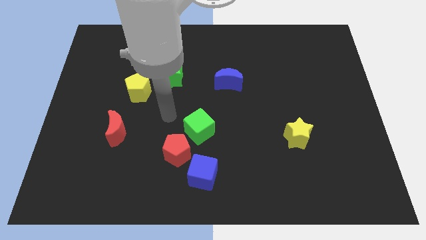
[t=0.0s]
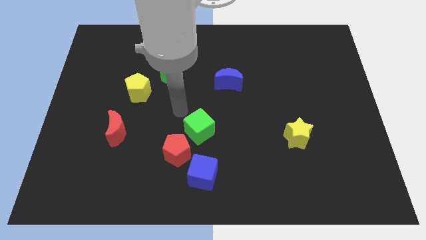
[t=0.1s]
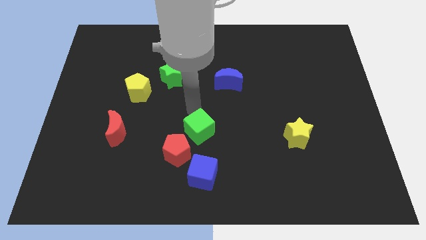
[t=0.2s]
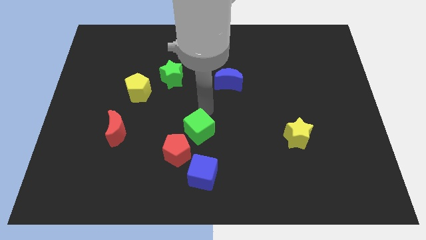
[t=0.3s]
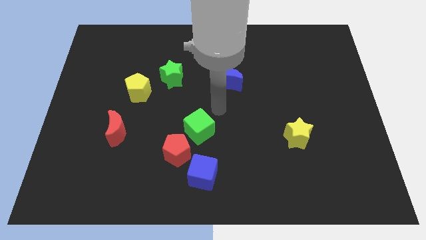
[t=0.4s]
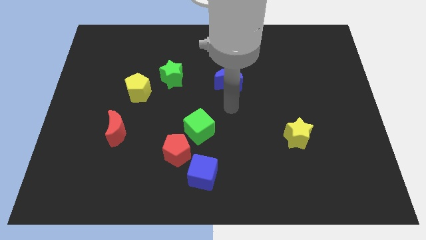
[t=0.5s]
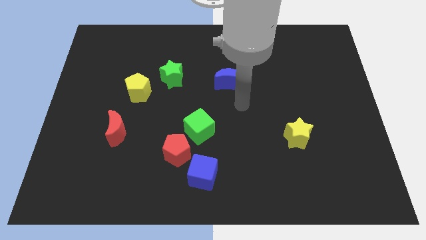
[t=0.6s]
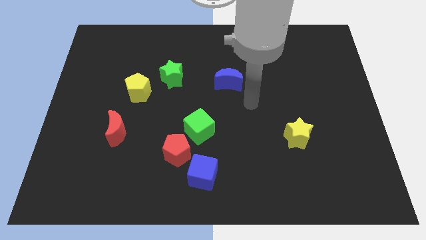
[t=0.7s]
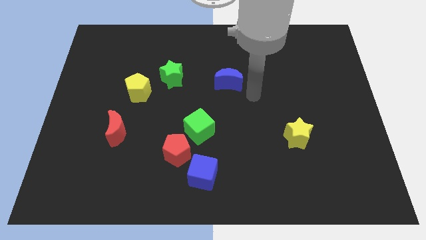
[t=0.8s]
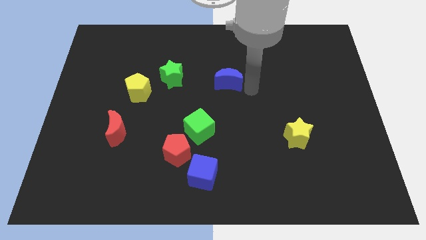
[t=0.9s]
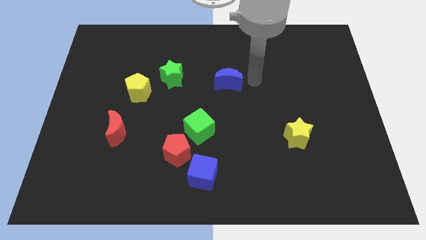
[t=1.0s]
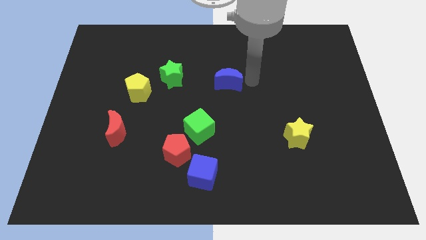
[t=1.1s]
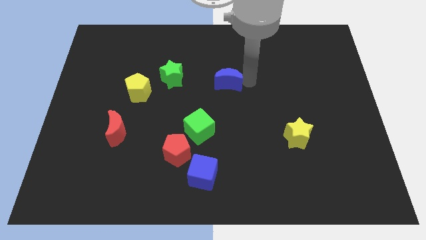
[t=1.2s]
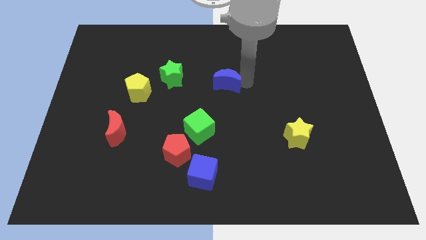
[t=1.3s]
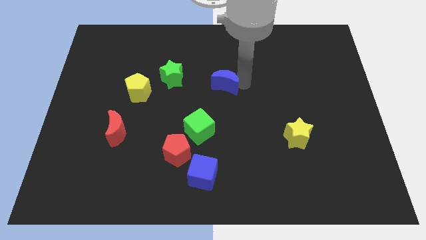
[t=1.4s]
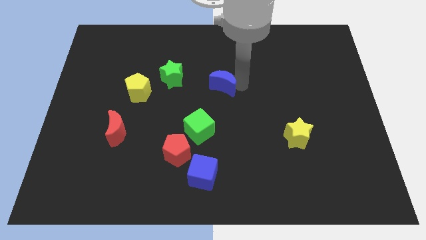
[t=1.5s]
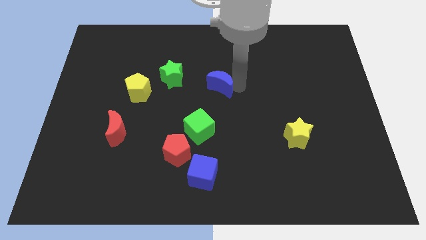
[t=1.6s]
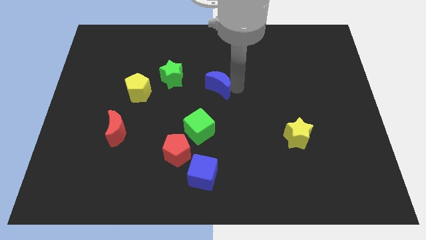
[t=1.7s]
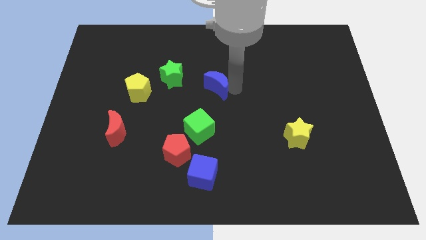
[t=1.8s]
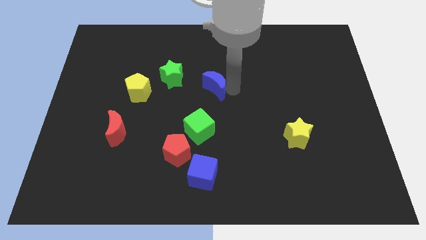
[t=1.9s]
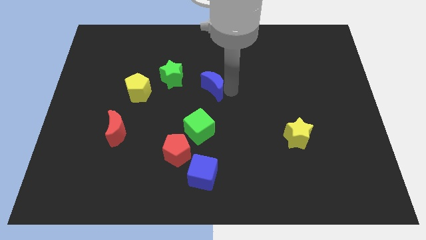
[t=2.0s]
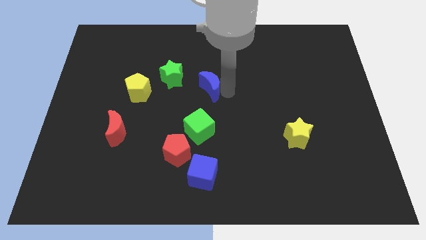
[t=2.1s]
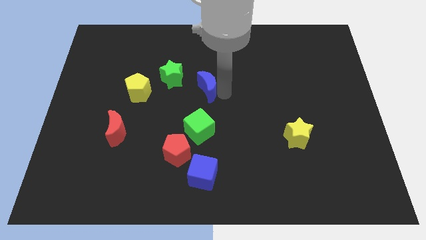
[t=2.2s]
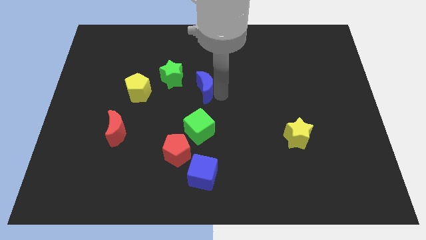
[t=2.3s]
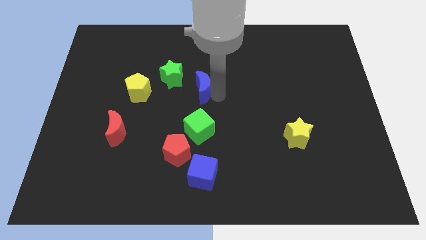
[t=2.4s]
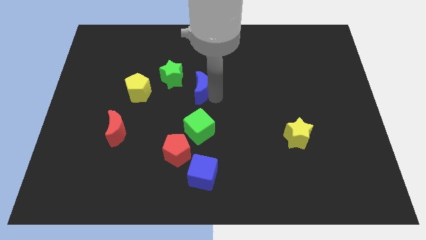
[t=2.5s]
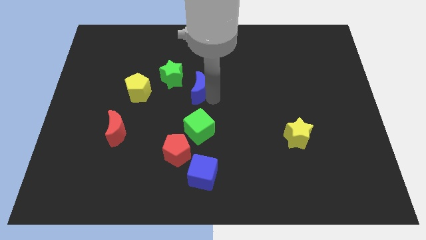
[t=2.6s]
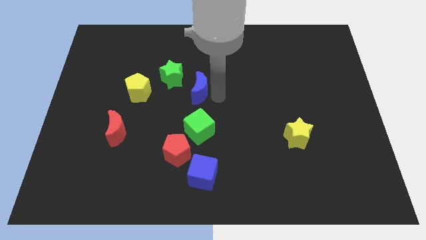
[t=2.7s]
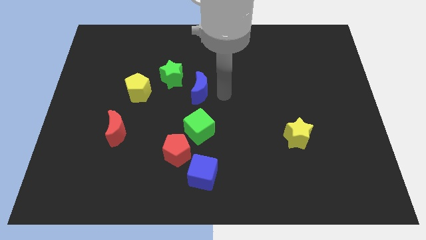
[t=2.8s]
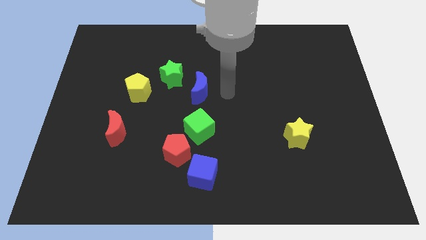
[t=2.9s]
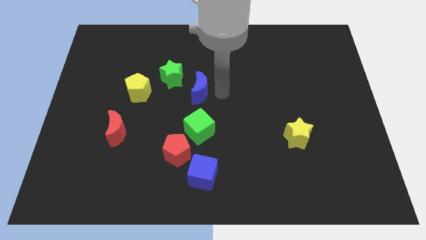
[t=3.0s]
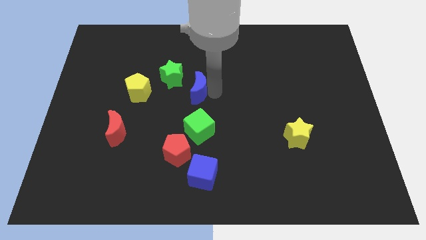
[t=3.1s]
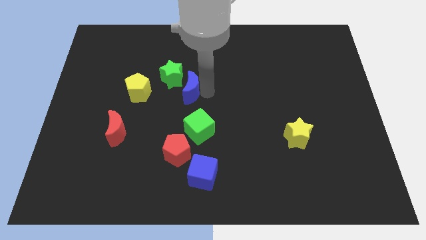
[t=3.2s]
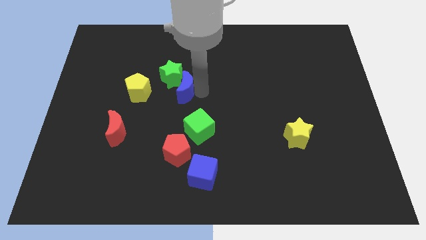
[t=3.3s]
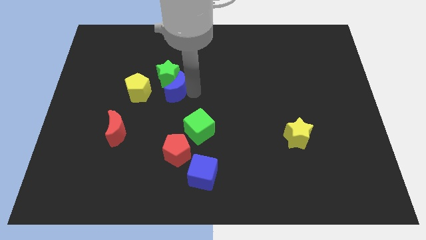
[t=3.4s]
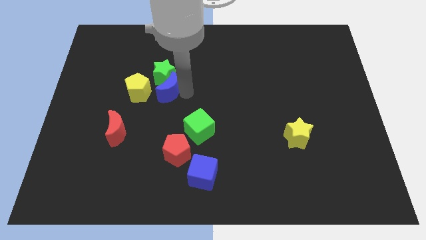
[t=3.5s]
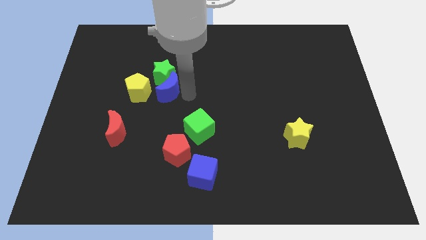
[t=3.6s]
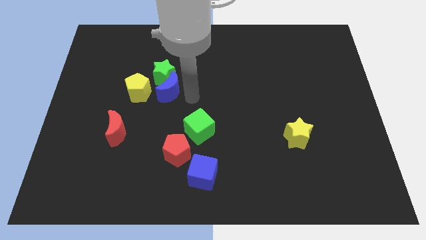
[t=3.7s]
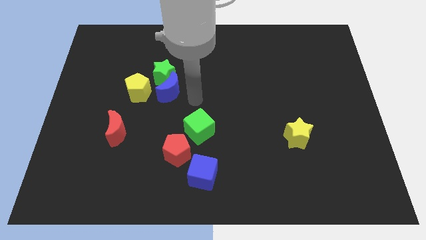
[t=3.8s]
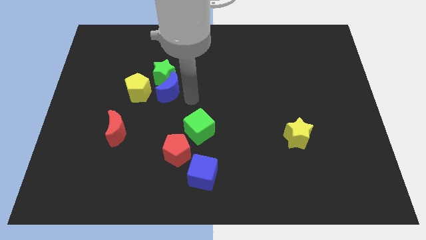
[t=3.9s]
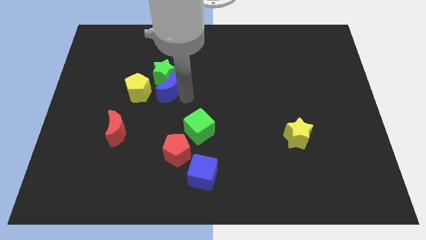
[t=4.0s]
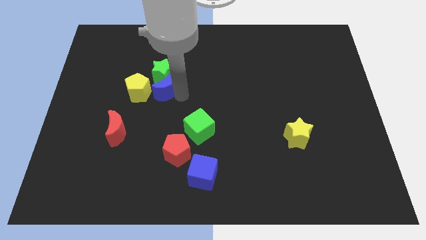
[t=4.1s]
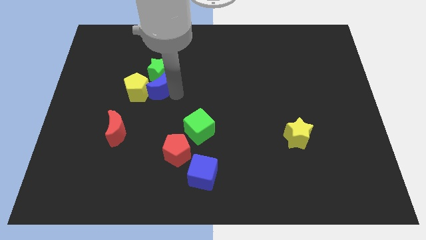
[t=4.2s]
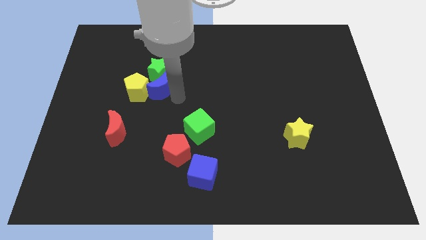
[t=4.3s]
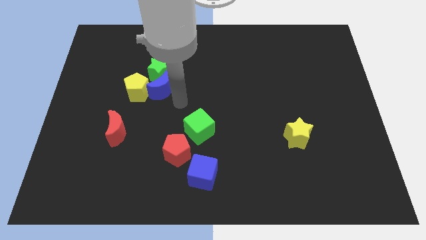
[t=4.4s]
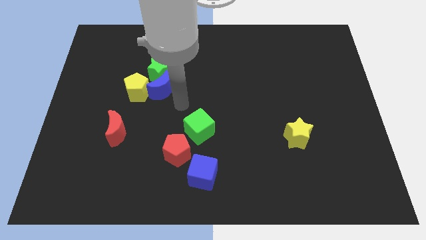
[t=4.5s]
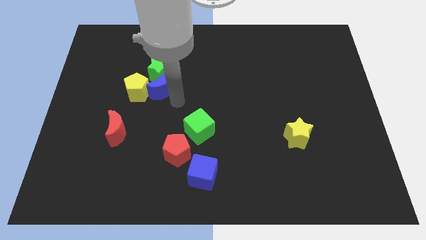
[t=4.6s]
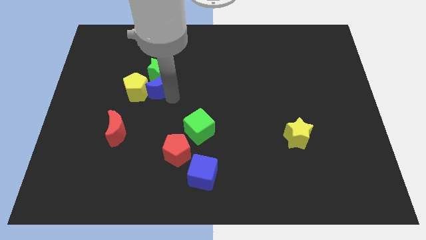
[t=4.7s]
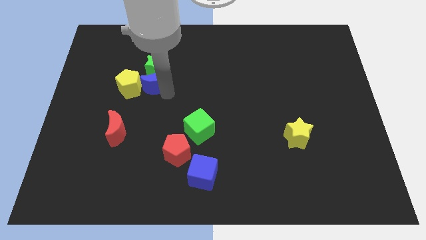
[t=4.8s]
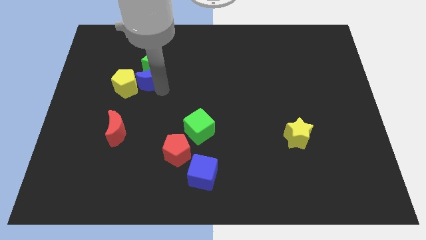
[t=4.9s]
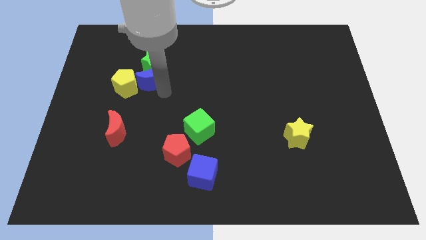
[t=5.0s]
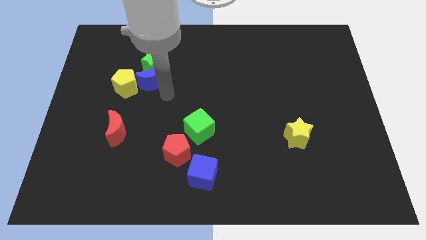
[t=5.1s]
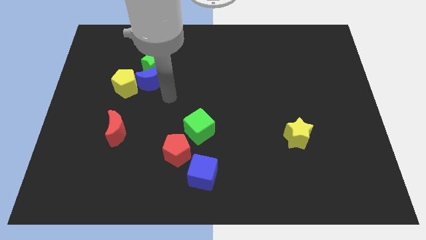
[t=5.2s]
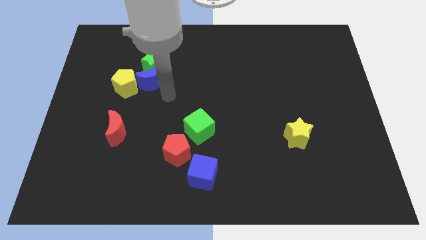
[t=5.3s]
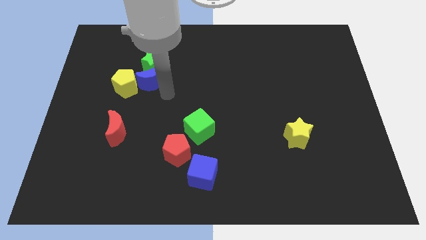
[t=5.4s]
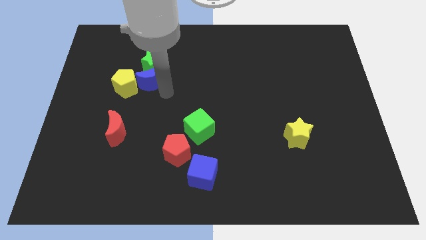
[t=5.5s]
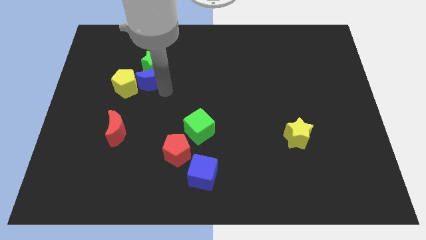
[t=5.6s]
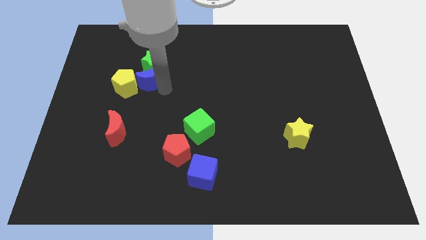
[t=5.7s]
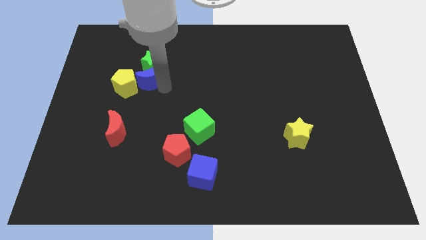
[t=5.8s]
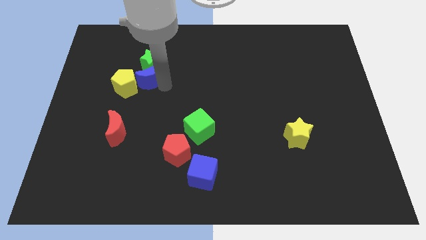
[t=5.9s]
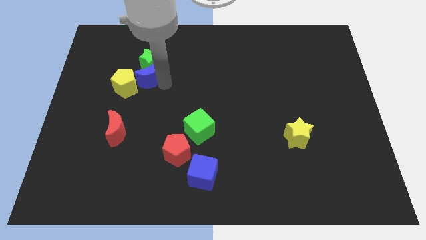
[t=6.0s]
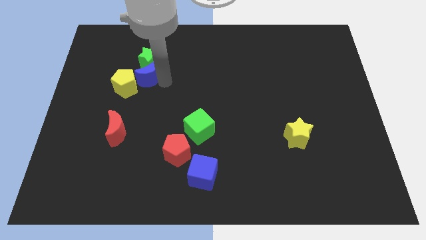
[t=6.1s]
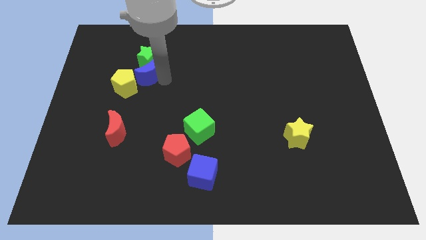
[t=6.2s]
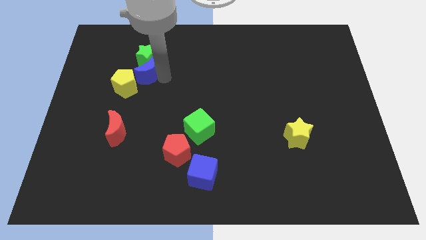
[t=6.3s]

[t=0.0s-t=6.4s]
slide the blue moon to the left

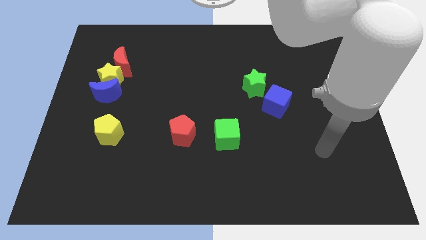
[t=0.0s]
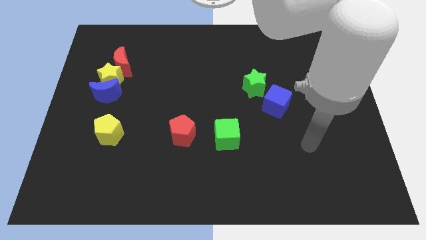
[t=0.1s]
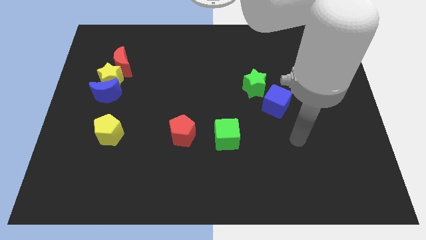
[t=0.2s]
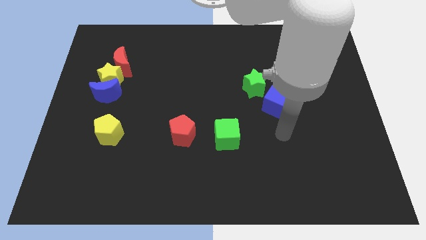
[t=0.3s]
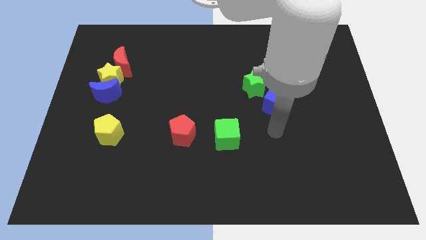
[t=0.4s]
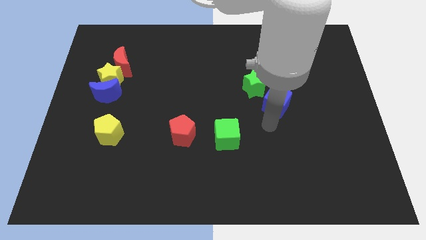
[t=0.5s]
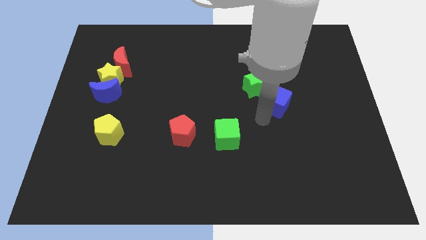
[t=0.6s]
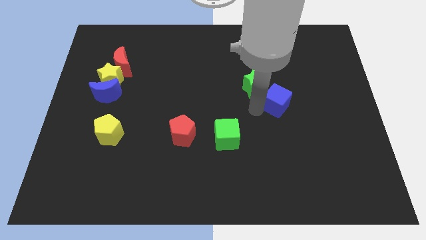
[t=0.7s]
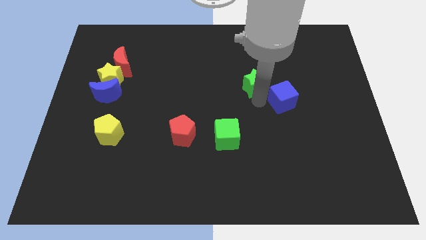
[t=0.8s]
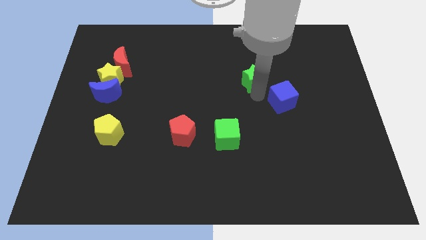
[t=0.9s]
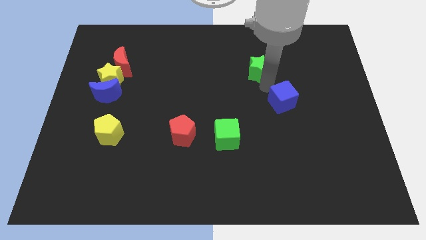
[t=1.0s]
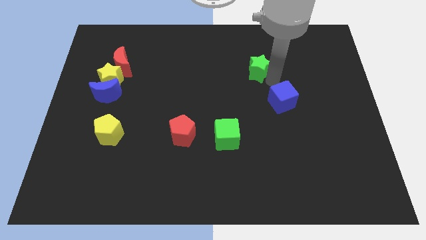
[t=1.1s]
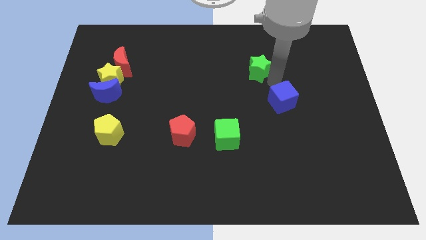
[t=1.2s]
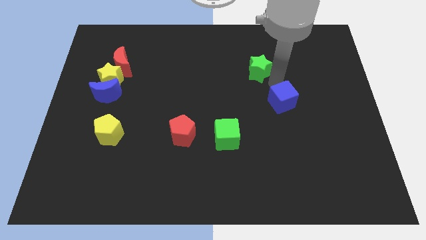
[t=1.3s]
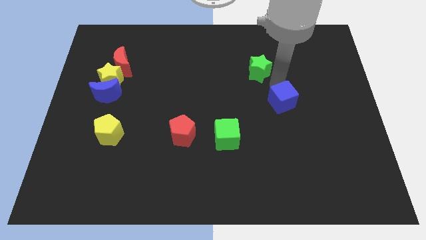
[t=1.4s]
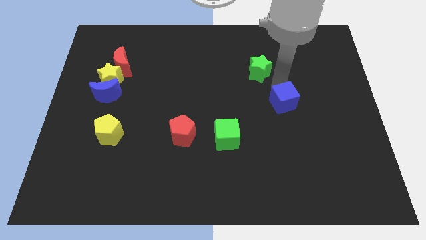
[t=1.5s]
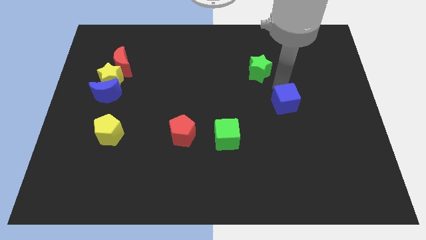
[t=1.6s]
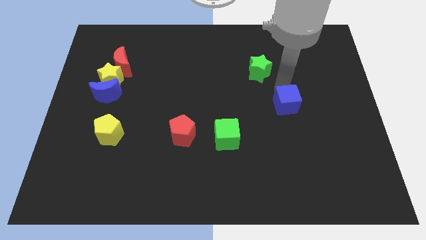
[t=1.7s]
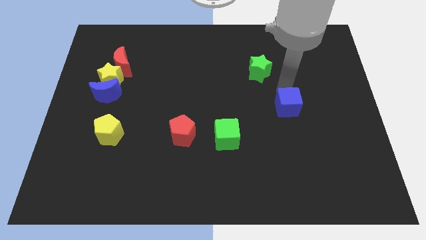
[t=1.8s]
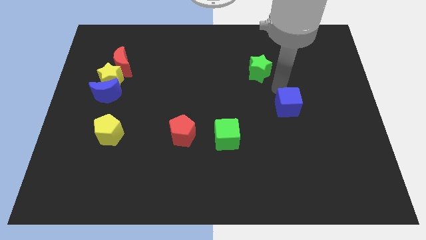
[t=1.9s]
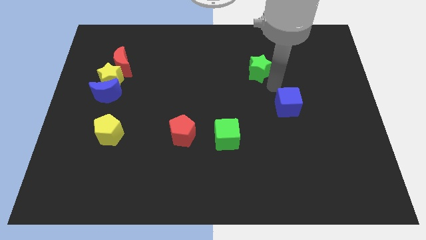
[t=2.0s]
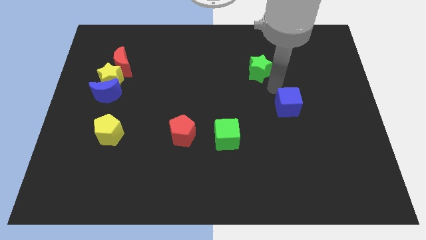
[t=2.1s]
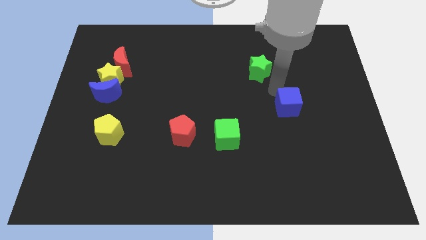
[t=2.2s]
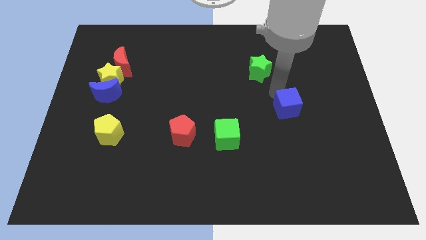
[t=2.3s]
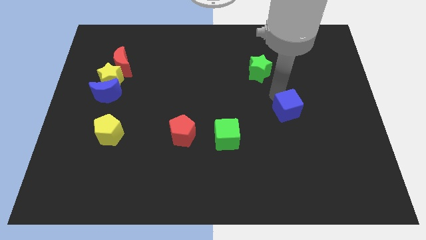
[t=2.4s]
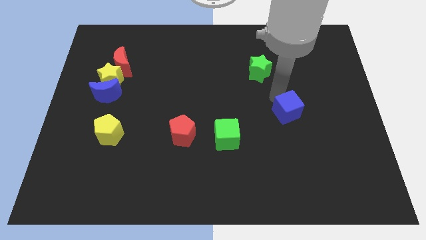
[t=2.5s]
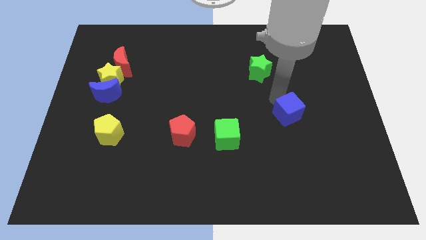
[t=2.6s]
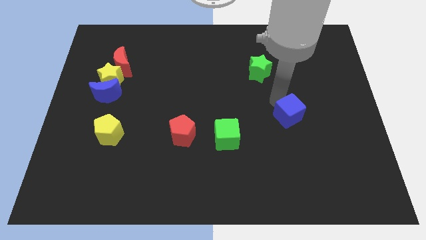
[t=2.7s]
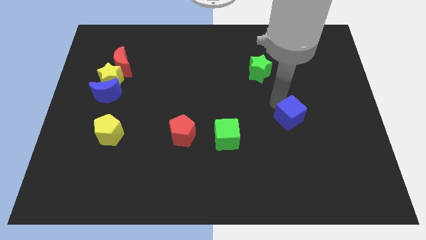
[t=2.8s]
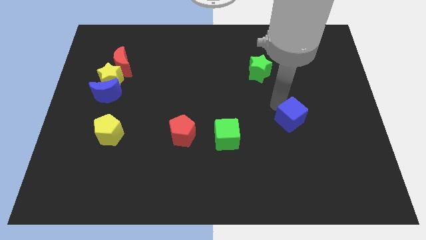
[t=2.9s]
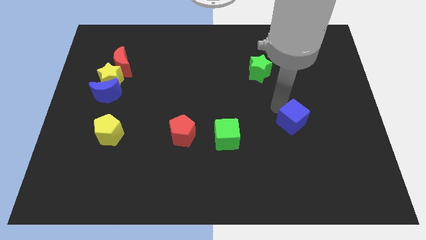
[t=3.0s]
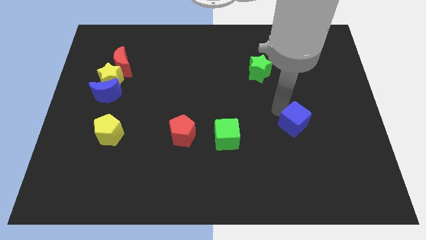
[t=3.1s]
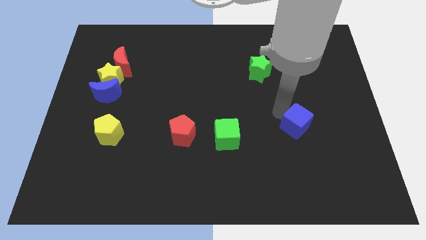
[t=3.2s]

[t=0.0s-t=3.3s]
move the blue cube somewhat downwards and then to the right
